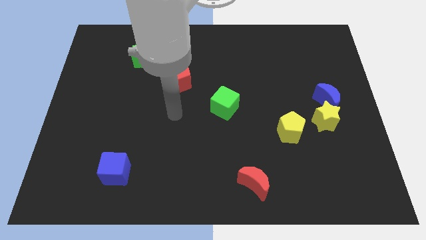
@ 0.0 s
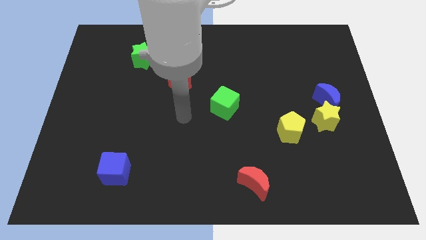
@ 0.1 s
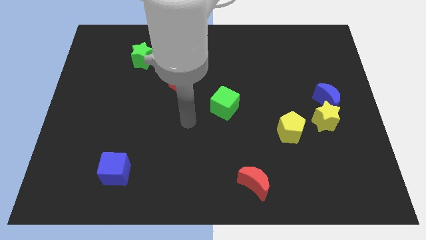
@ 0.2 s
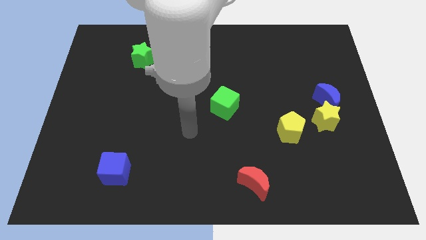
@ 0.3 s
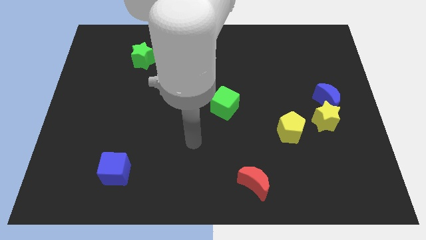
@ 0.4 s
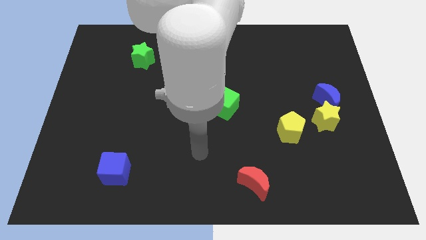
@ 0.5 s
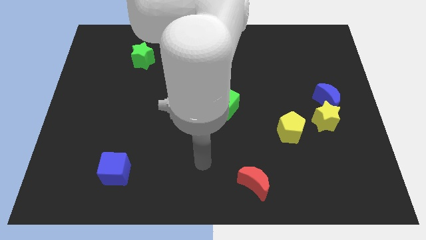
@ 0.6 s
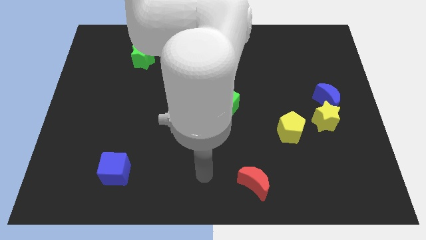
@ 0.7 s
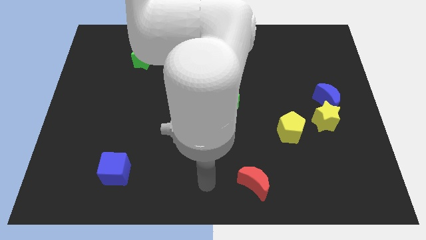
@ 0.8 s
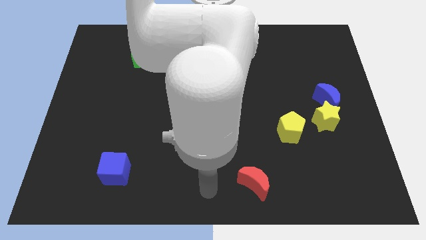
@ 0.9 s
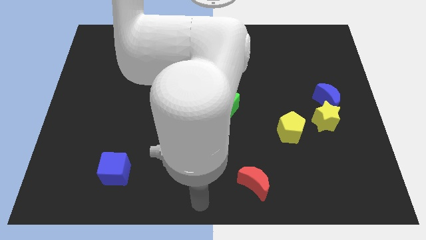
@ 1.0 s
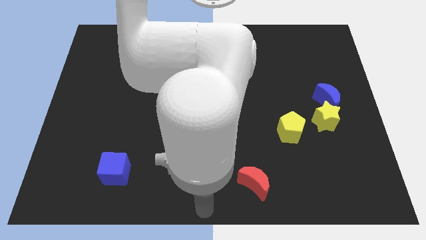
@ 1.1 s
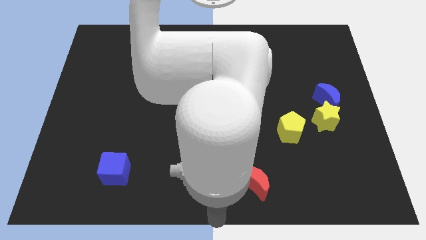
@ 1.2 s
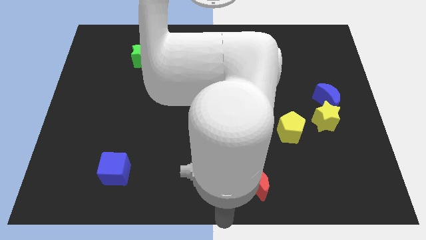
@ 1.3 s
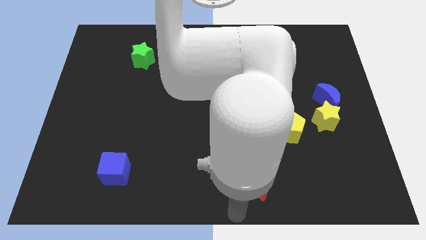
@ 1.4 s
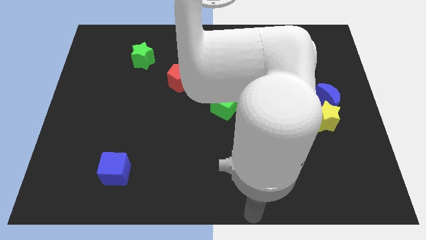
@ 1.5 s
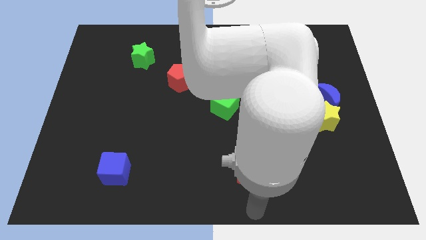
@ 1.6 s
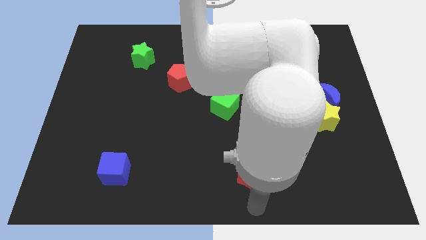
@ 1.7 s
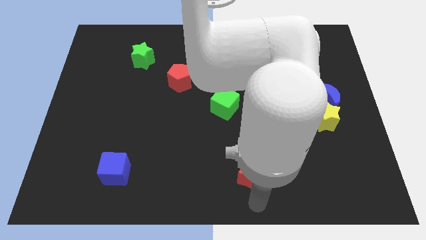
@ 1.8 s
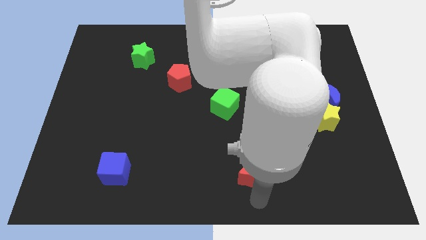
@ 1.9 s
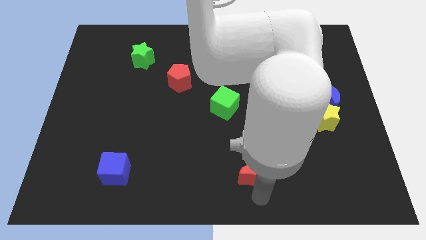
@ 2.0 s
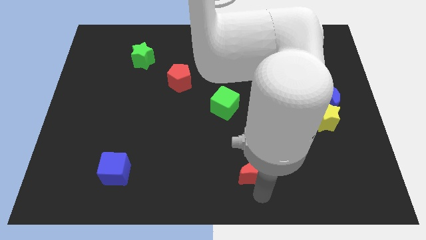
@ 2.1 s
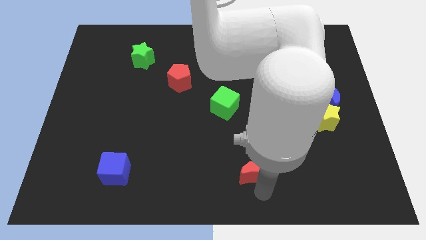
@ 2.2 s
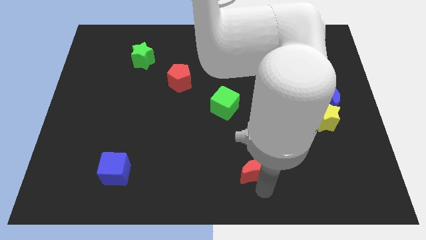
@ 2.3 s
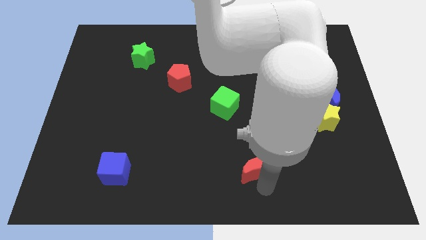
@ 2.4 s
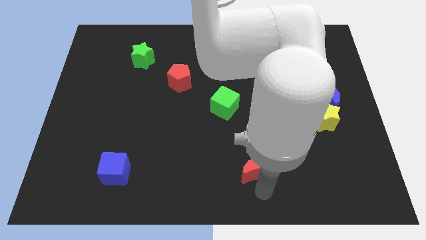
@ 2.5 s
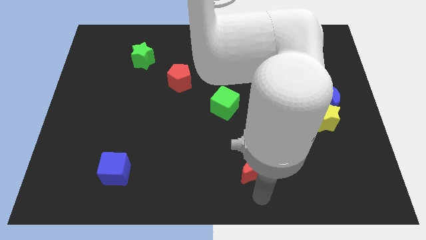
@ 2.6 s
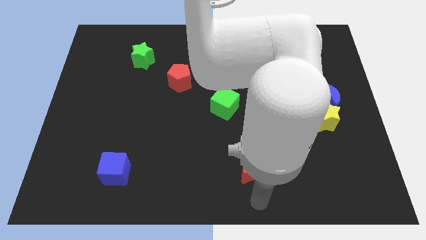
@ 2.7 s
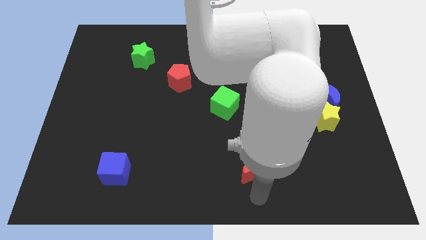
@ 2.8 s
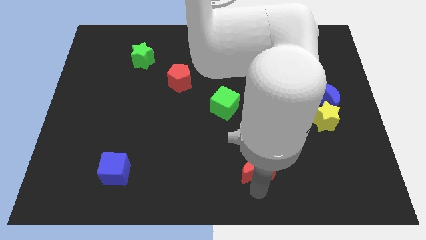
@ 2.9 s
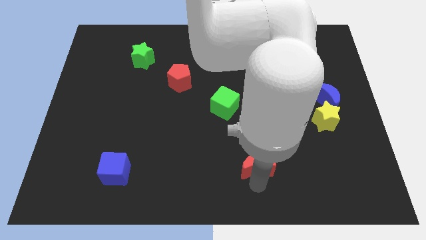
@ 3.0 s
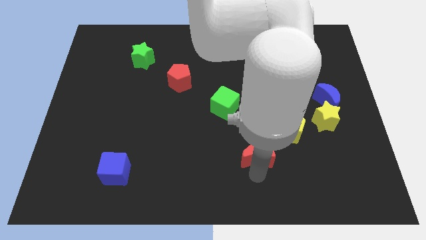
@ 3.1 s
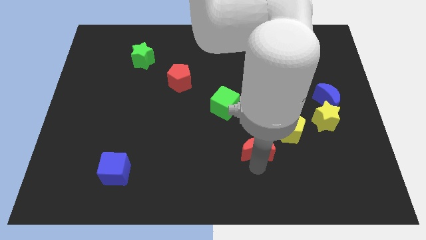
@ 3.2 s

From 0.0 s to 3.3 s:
slightly move the red moon up

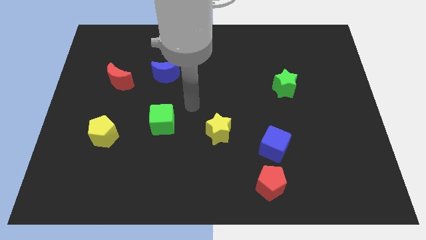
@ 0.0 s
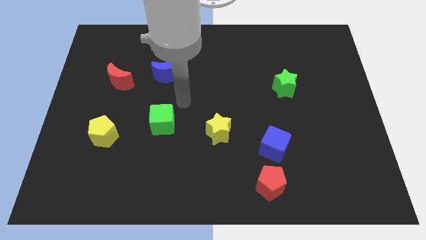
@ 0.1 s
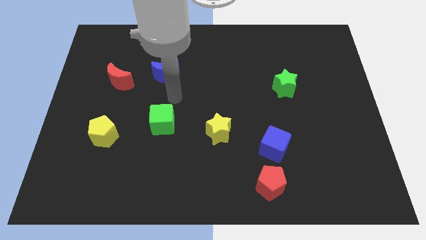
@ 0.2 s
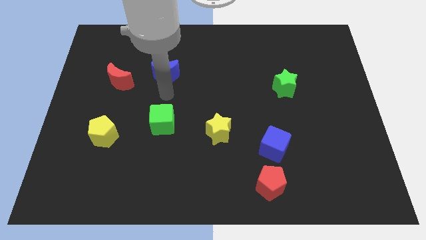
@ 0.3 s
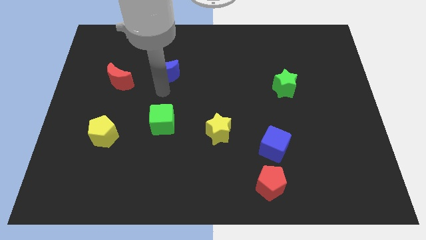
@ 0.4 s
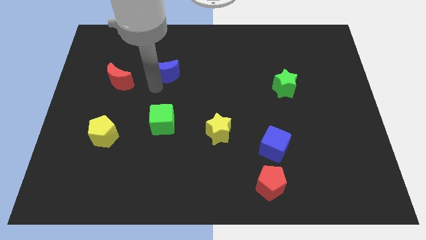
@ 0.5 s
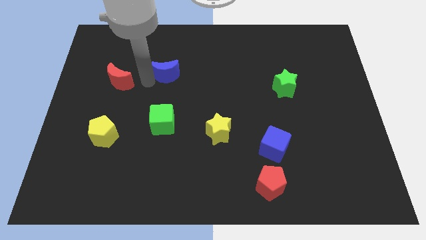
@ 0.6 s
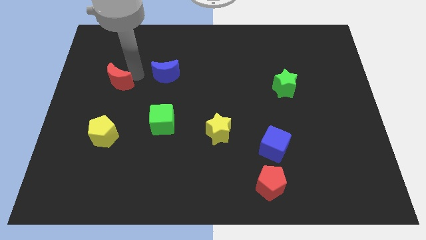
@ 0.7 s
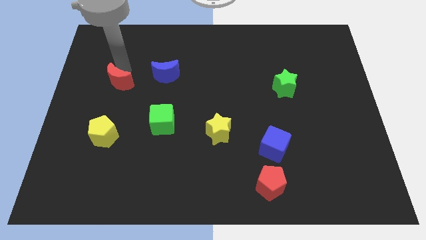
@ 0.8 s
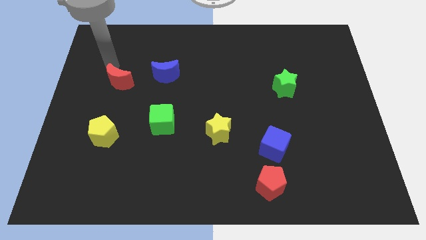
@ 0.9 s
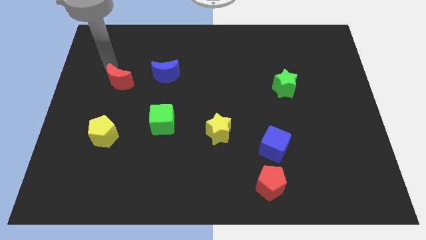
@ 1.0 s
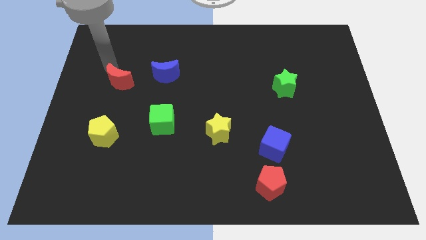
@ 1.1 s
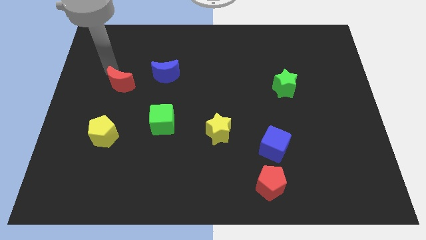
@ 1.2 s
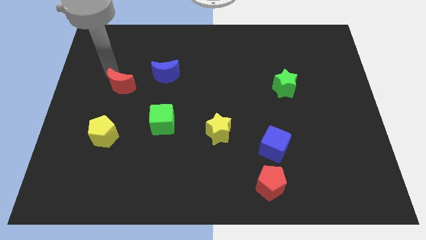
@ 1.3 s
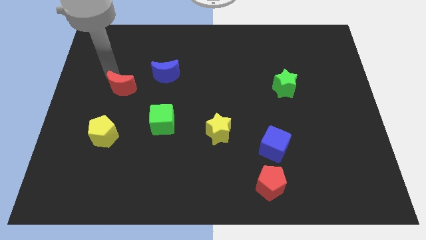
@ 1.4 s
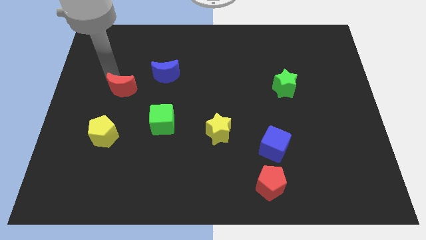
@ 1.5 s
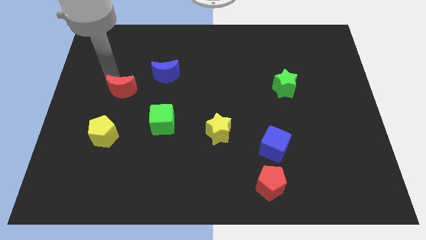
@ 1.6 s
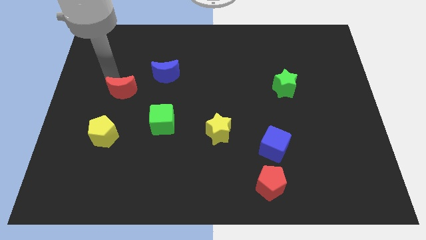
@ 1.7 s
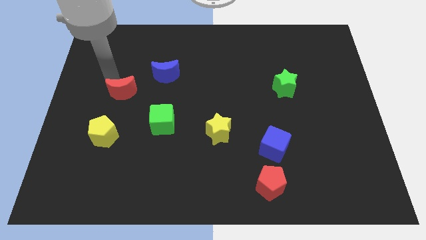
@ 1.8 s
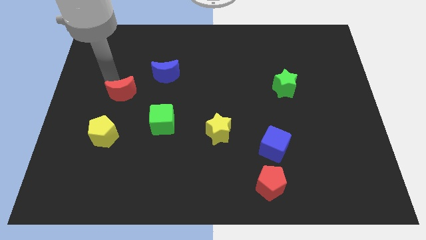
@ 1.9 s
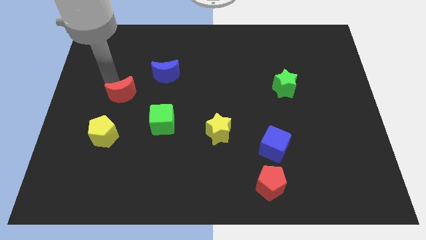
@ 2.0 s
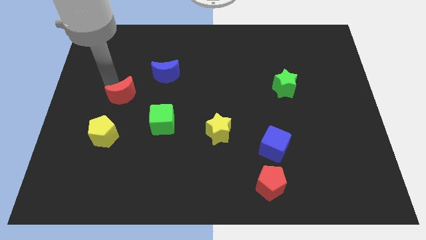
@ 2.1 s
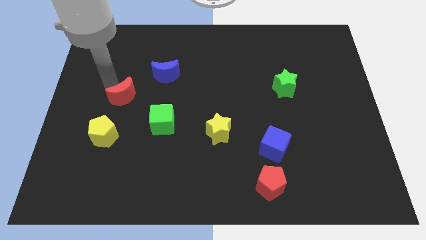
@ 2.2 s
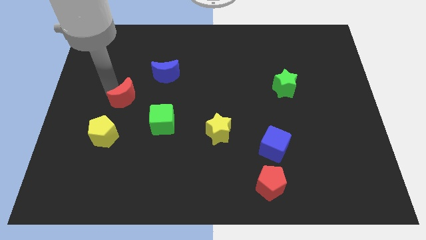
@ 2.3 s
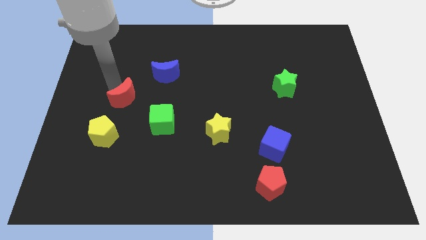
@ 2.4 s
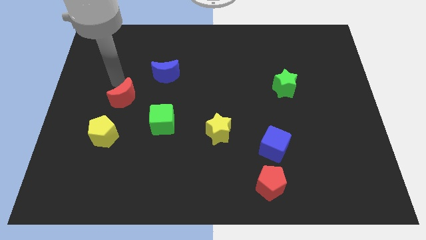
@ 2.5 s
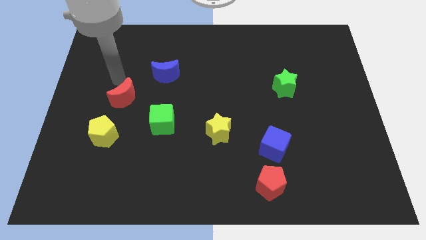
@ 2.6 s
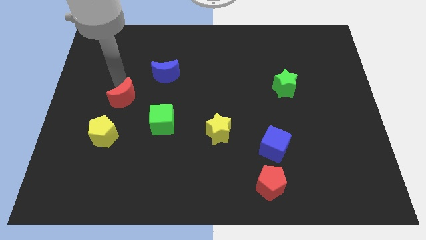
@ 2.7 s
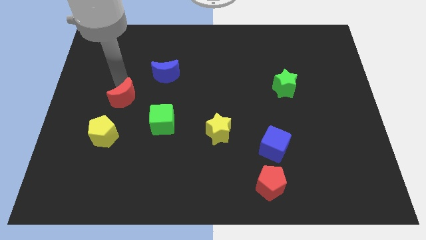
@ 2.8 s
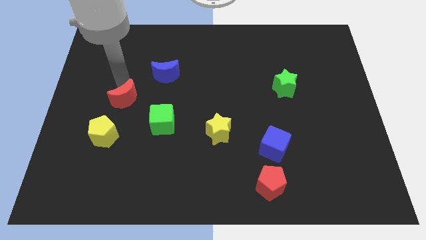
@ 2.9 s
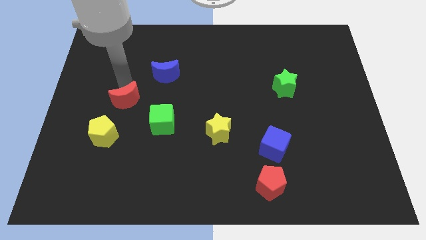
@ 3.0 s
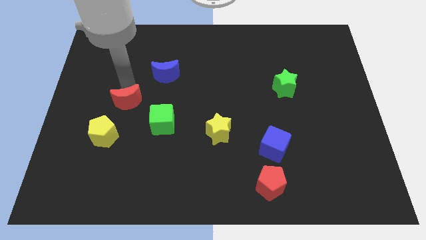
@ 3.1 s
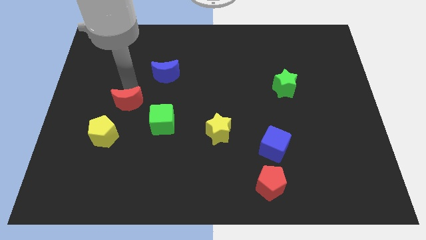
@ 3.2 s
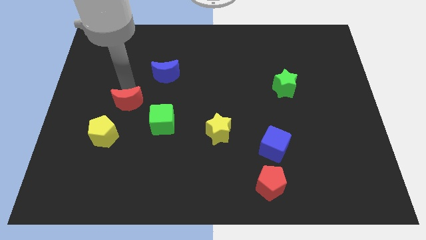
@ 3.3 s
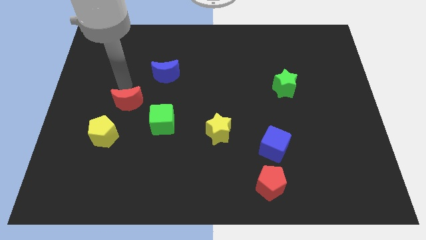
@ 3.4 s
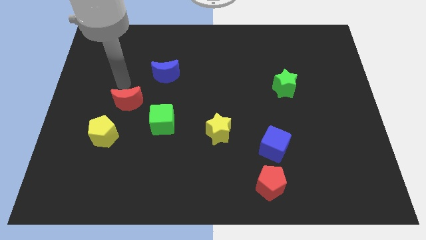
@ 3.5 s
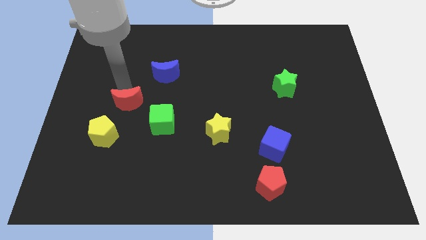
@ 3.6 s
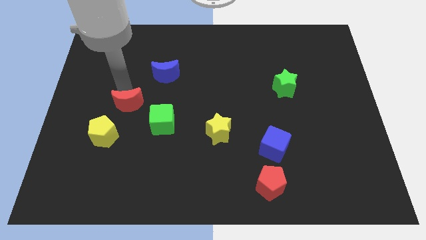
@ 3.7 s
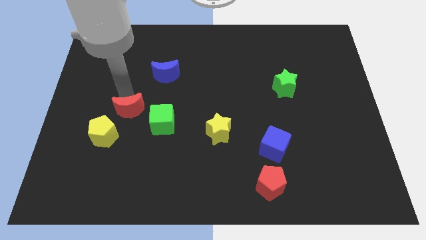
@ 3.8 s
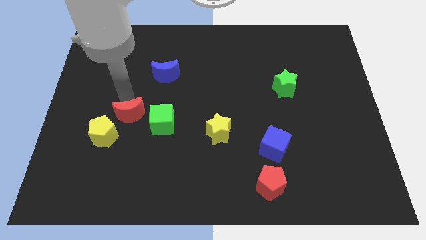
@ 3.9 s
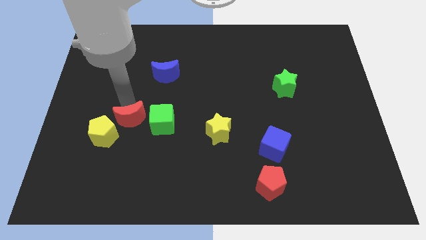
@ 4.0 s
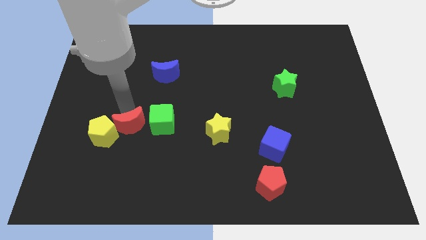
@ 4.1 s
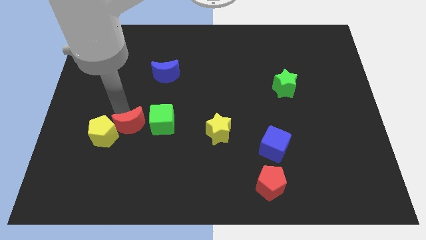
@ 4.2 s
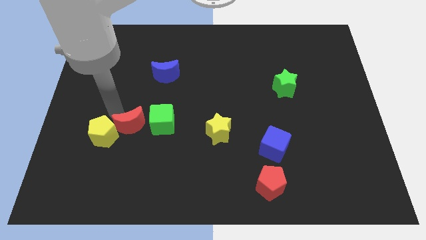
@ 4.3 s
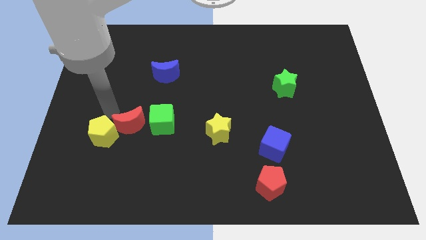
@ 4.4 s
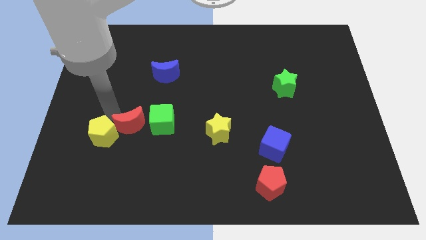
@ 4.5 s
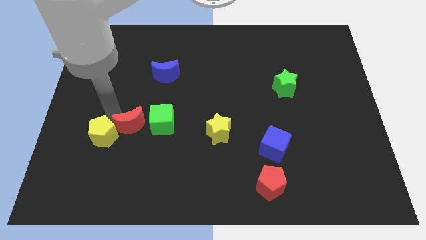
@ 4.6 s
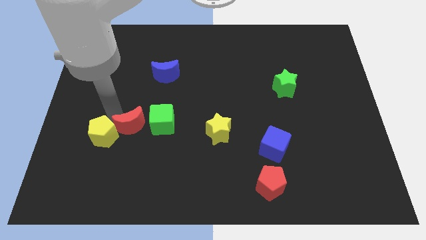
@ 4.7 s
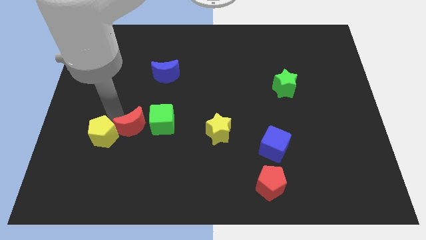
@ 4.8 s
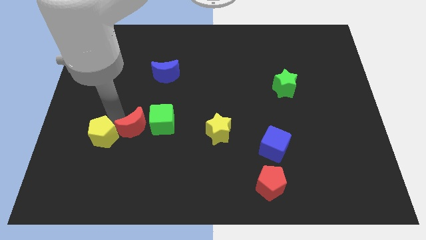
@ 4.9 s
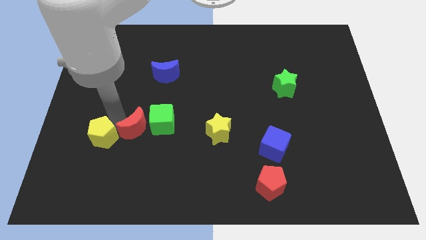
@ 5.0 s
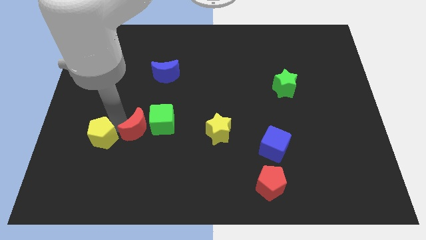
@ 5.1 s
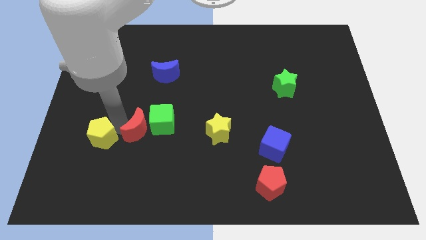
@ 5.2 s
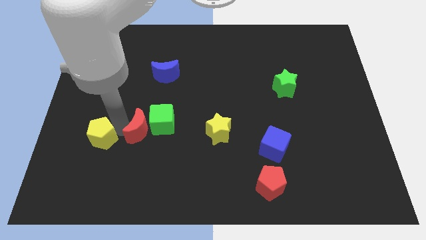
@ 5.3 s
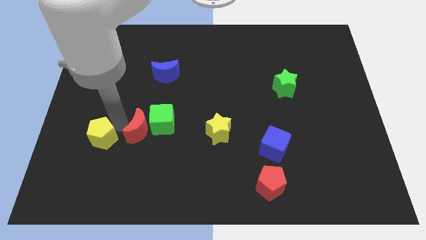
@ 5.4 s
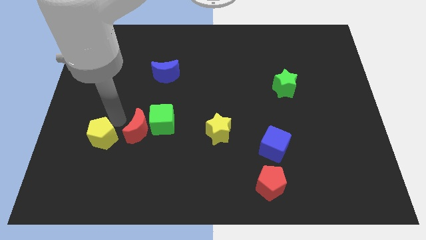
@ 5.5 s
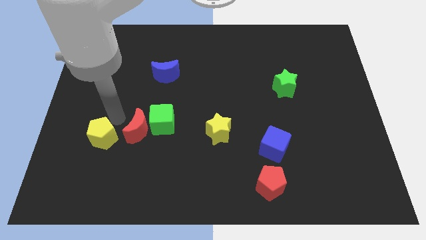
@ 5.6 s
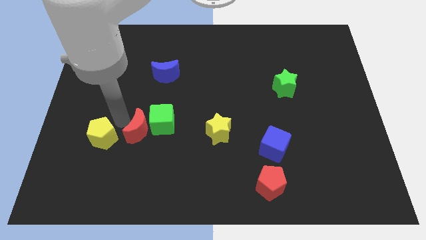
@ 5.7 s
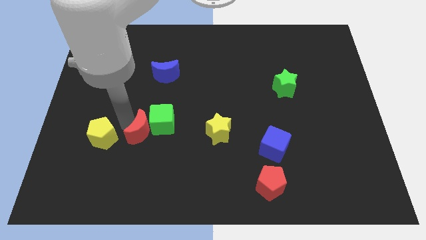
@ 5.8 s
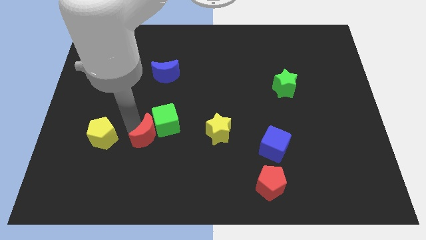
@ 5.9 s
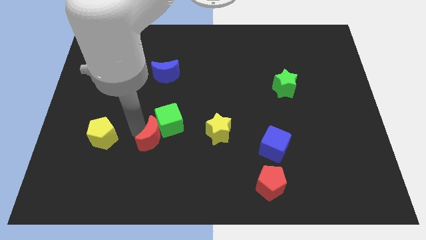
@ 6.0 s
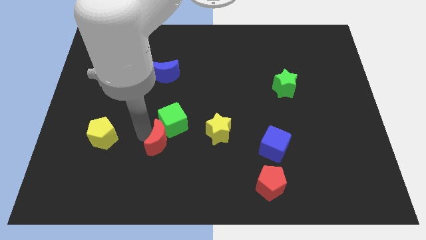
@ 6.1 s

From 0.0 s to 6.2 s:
move the red moon diagonally downwards and right
